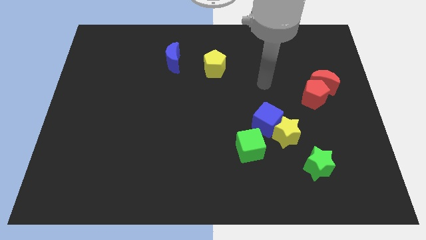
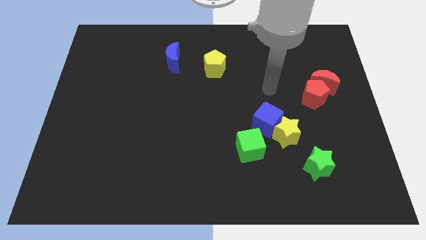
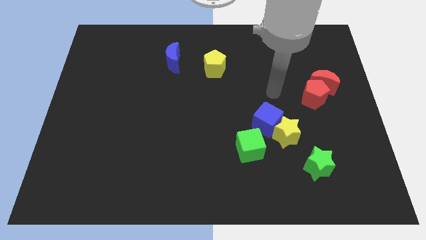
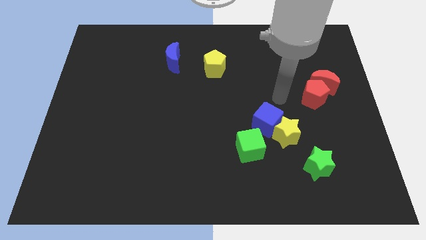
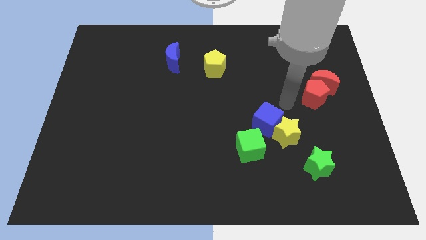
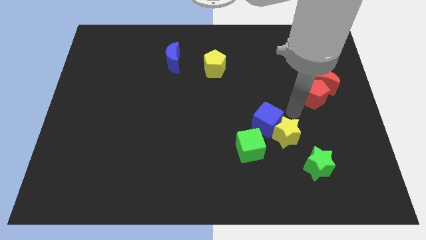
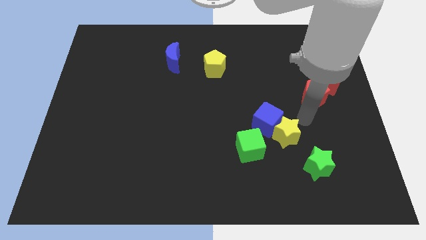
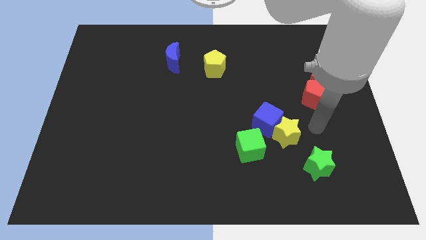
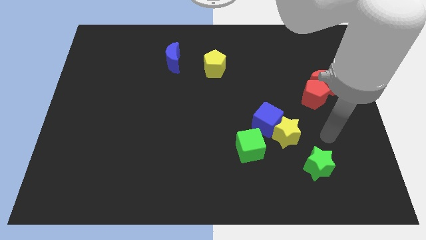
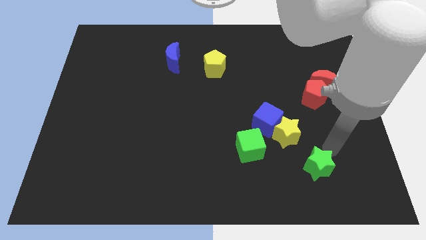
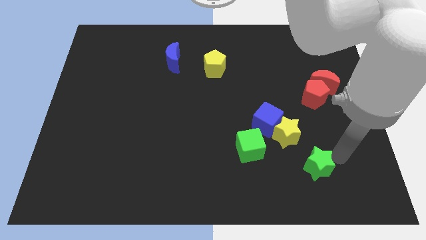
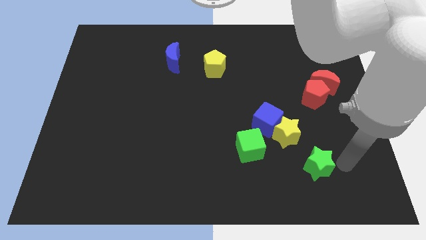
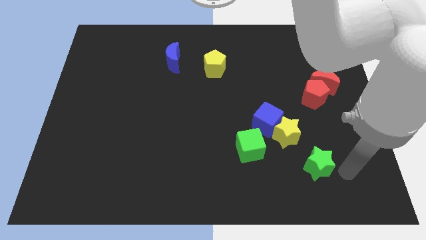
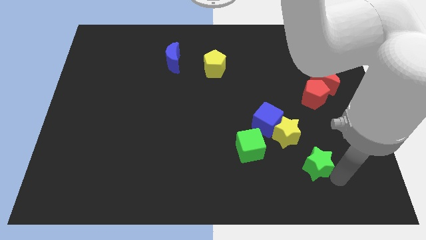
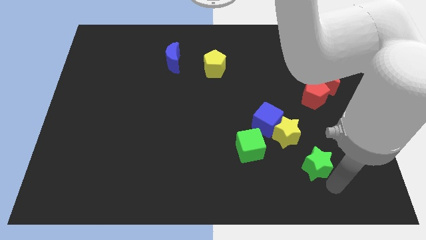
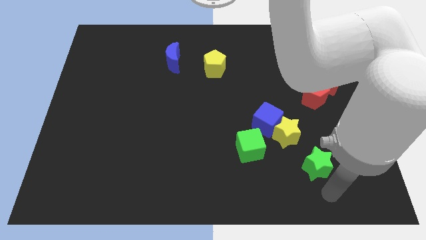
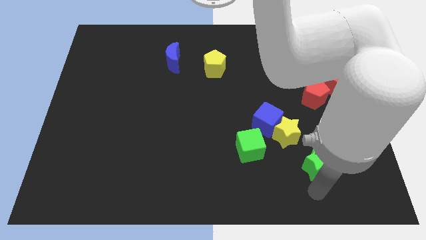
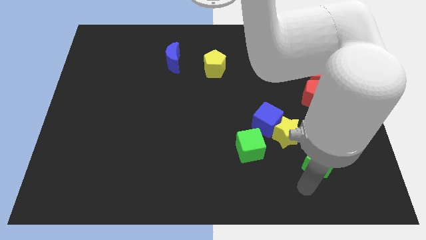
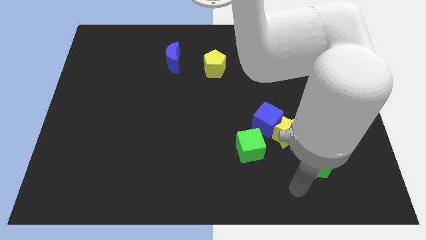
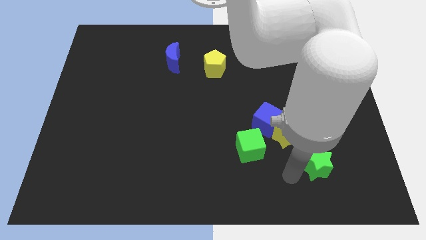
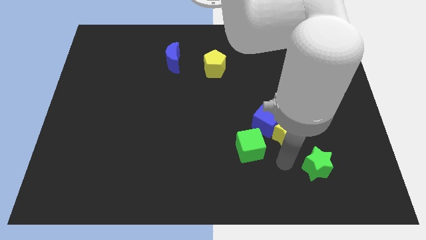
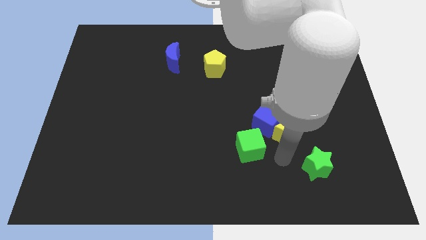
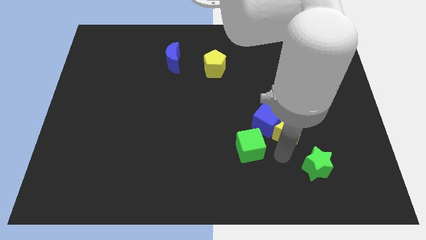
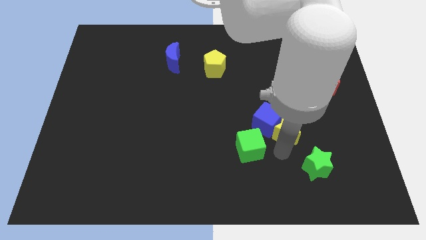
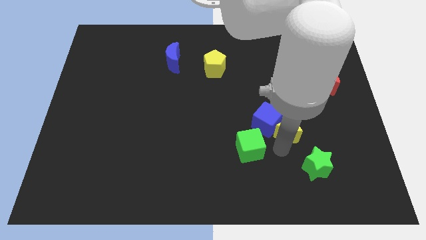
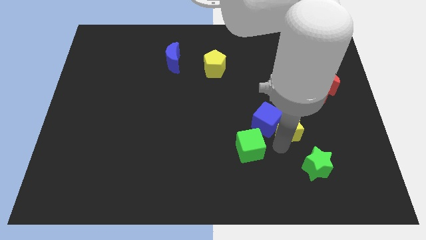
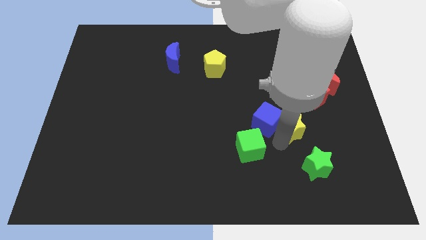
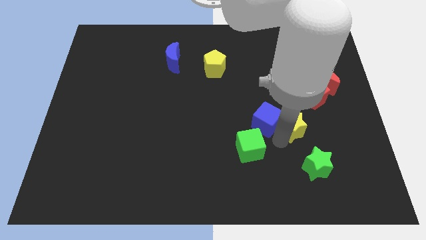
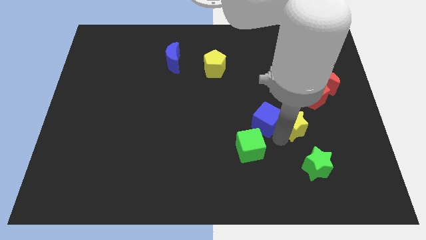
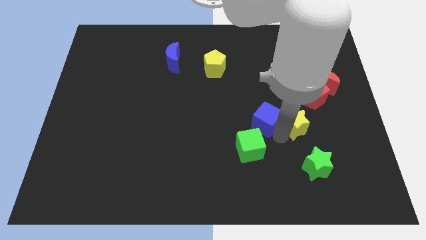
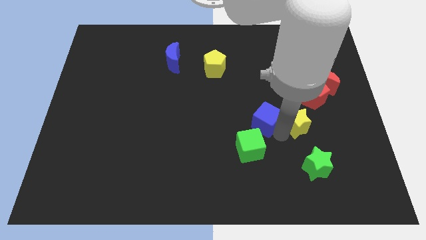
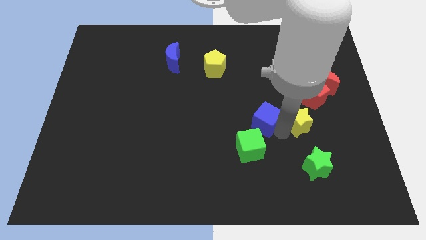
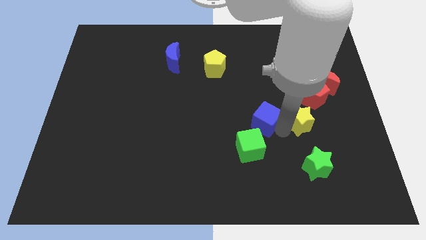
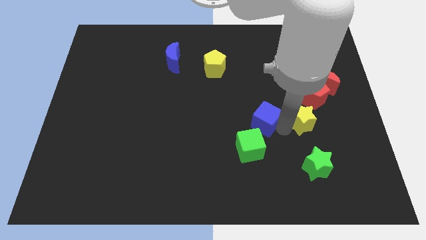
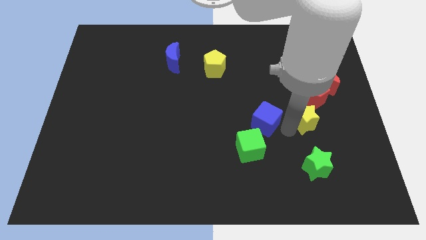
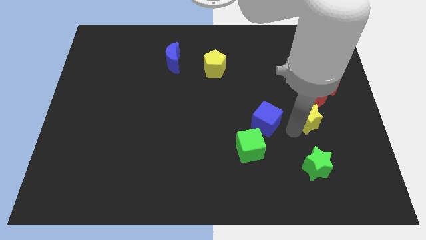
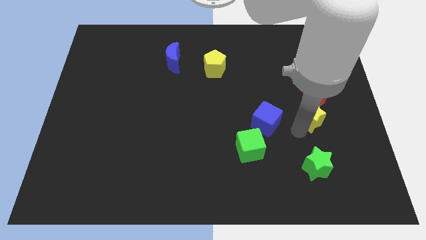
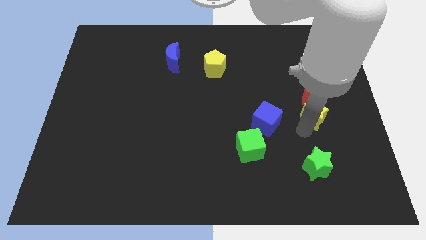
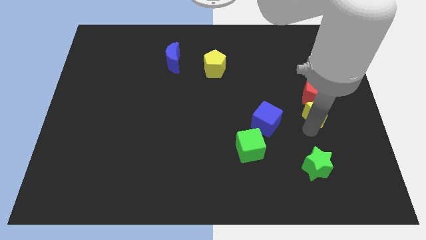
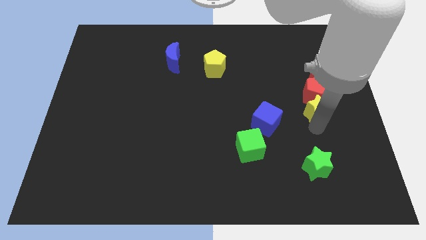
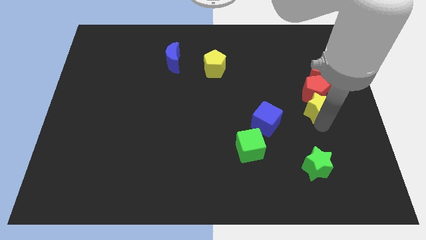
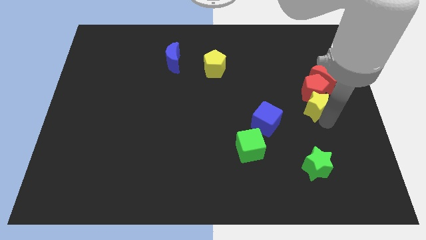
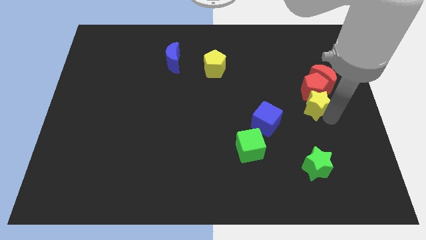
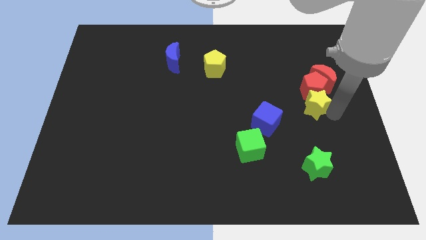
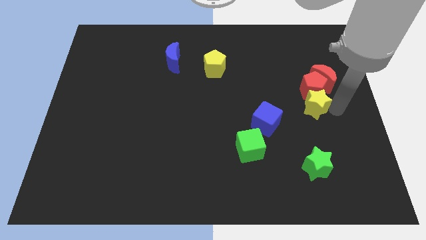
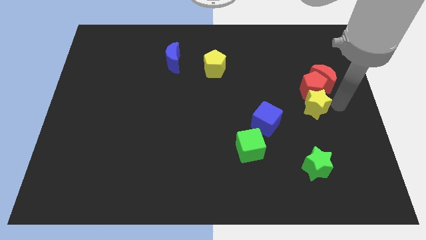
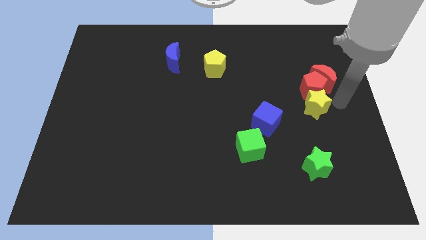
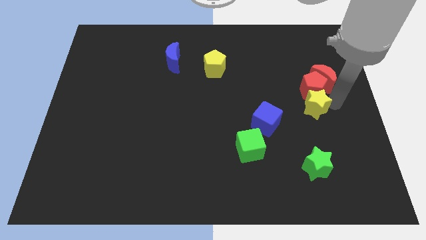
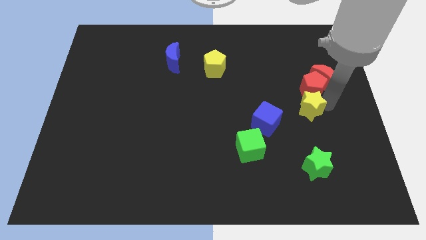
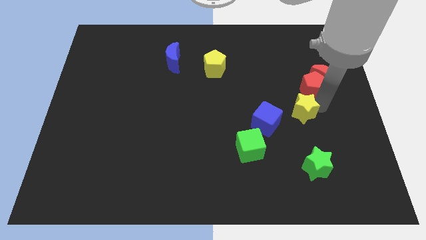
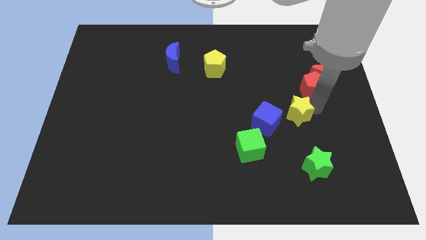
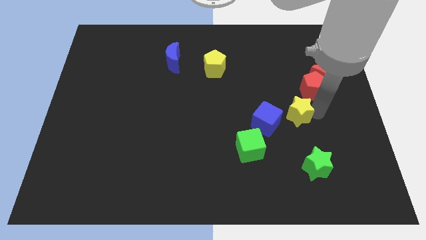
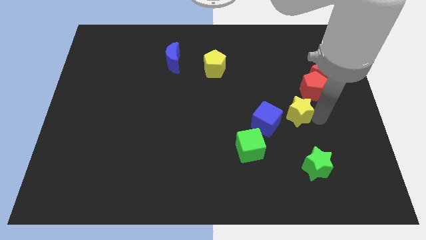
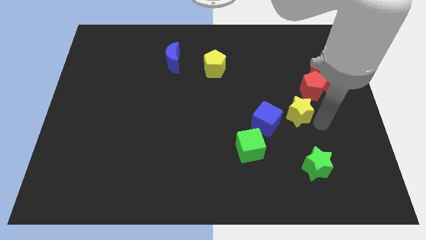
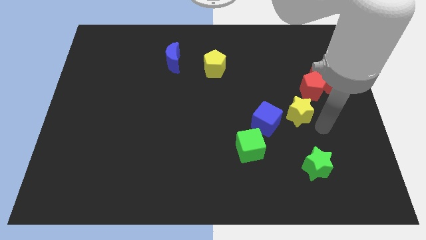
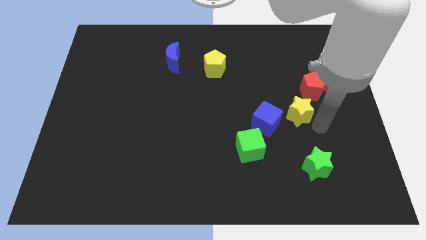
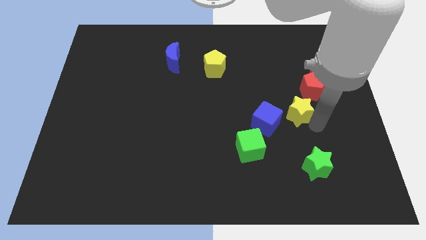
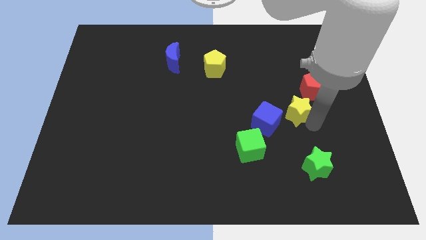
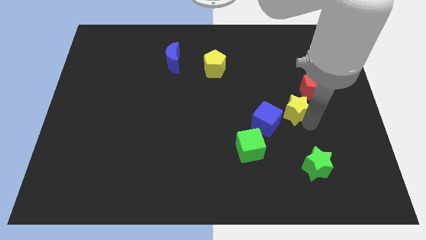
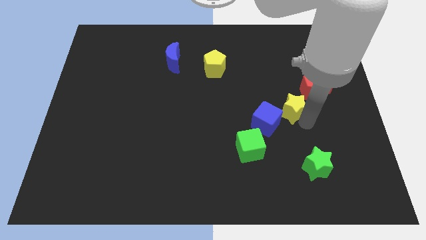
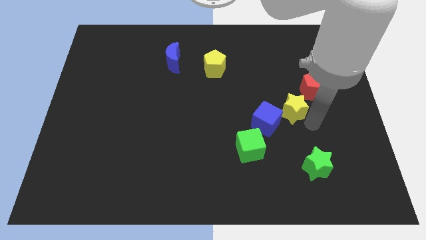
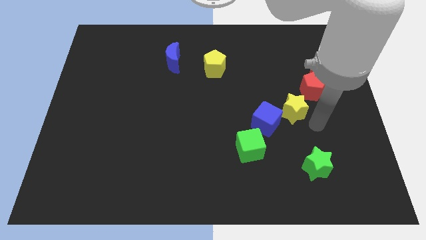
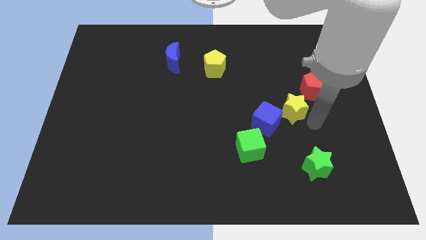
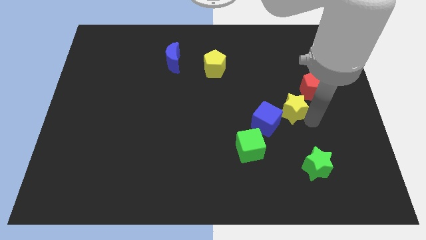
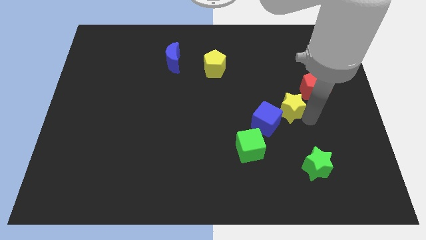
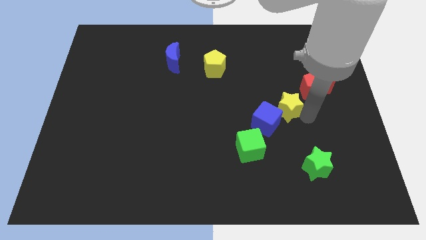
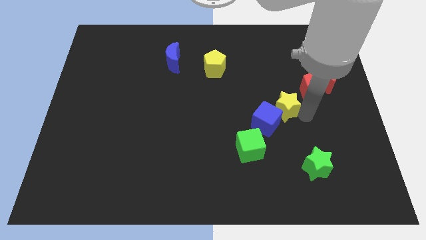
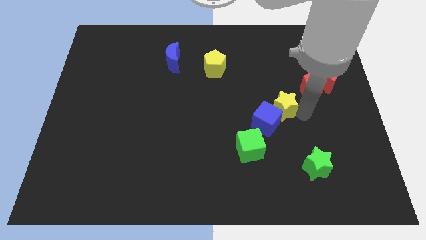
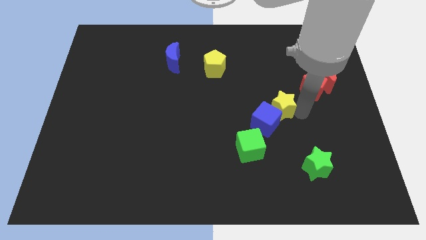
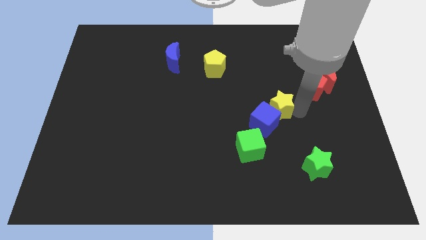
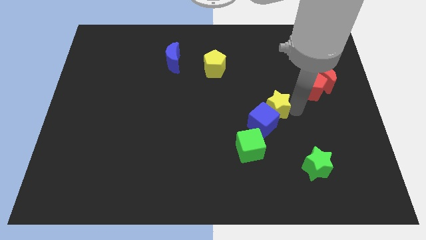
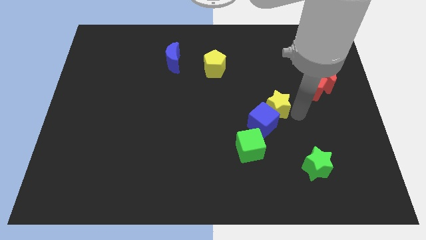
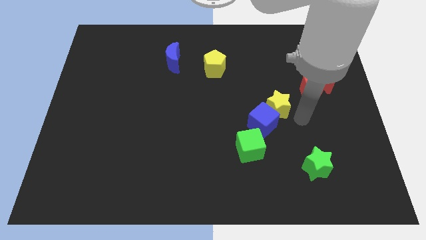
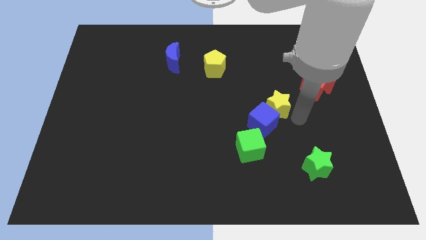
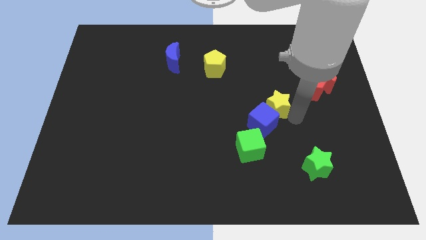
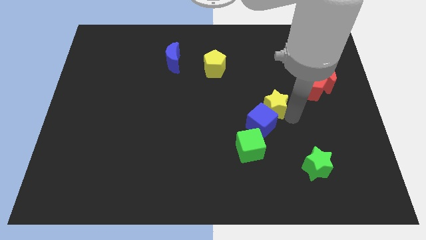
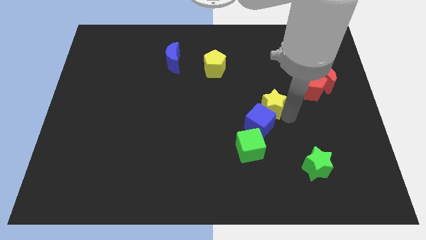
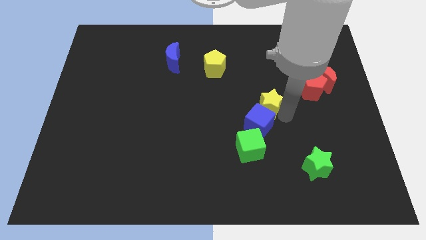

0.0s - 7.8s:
push the yellow star diagonally up and left slightly

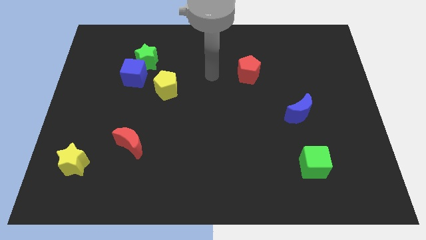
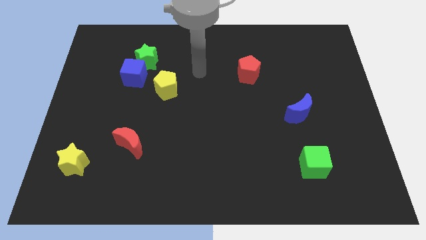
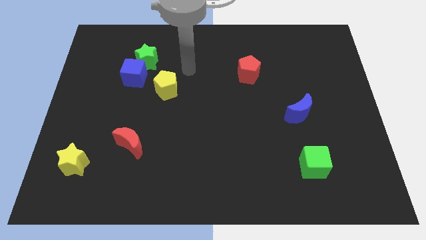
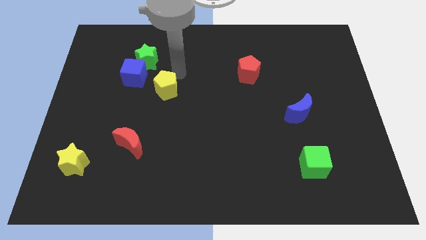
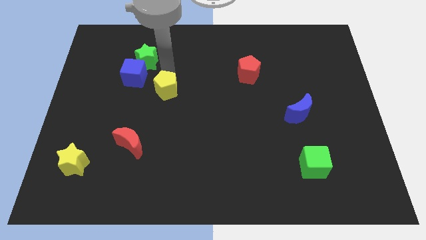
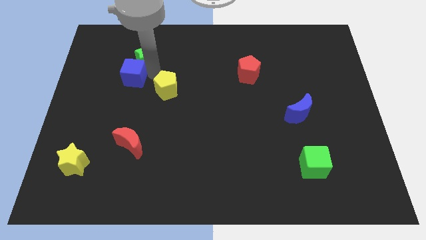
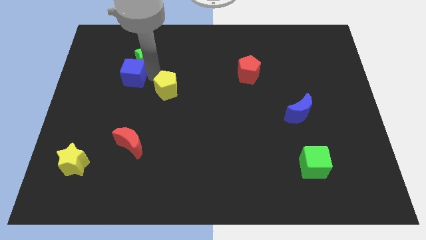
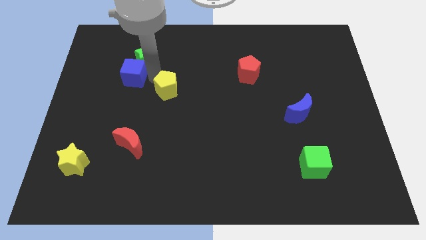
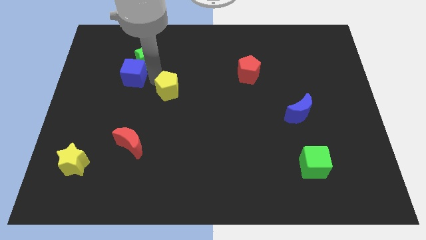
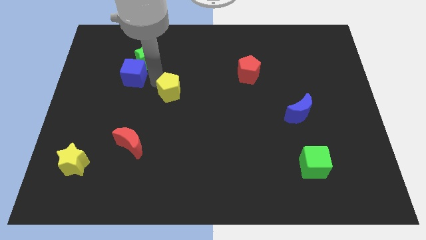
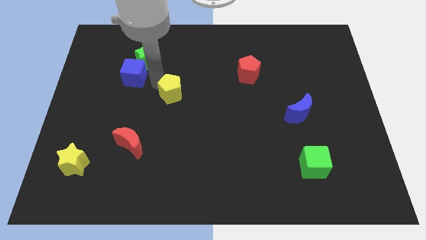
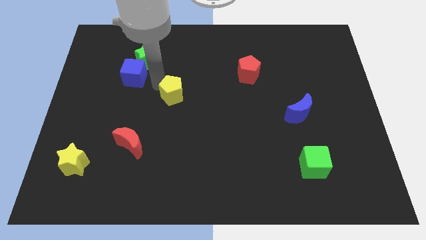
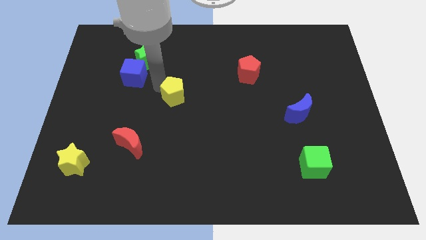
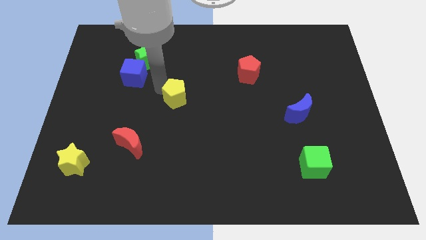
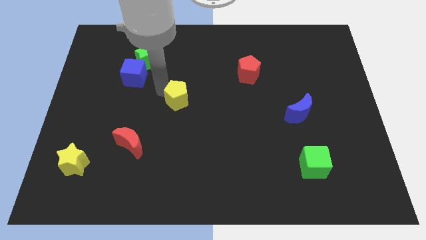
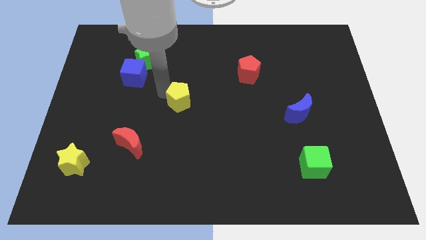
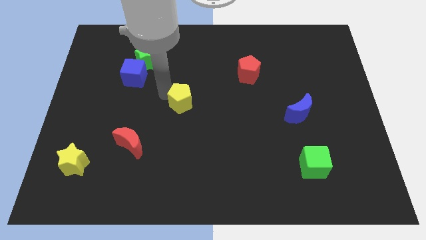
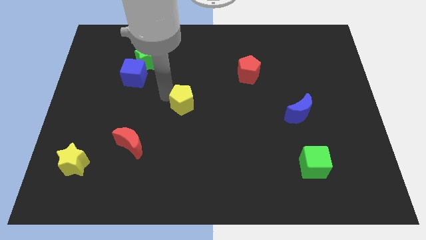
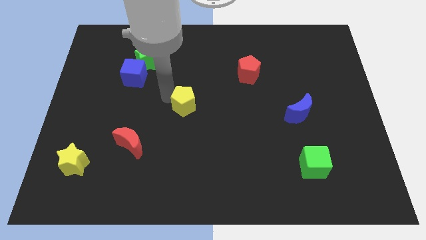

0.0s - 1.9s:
slightly slide the yellow pentagon downwards and right diagonally
